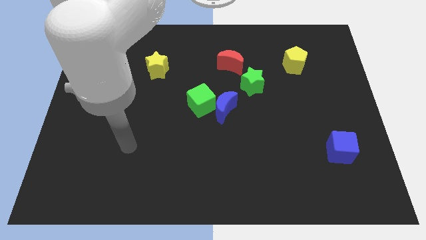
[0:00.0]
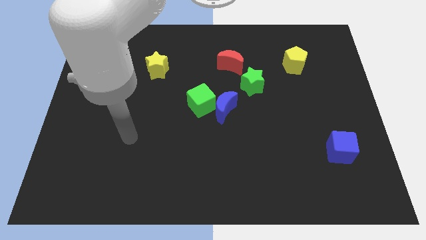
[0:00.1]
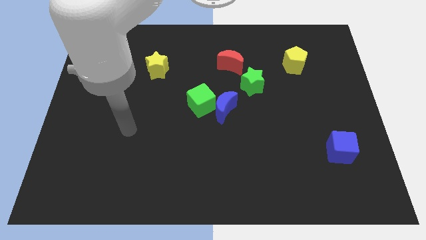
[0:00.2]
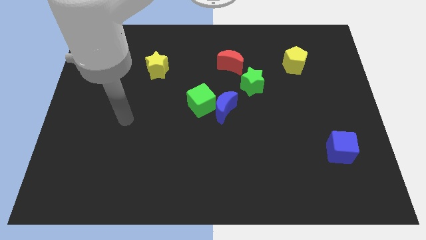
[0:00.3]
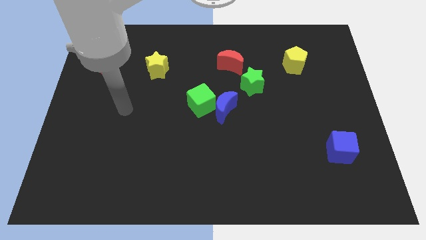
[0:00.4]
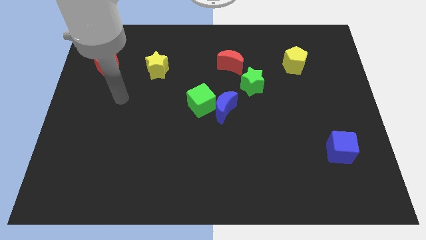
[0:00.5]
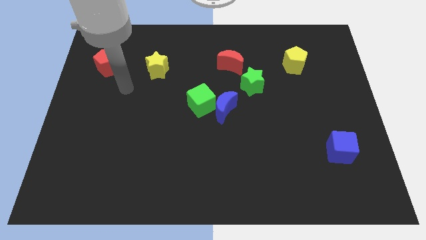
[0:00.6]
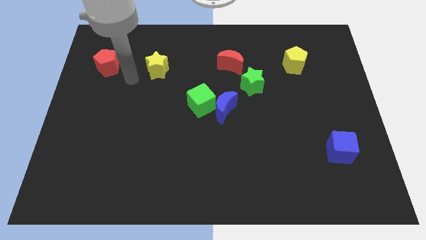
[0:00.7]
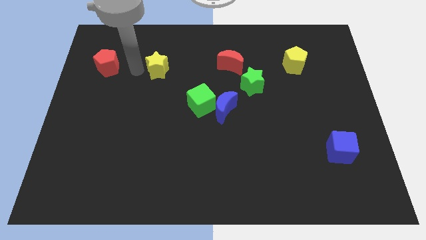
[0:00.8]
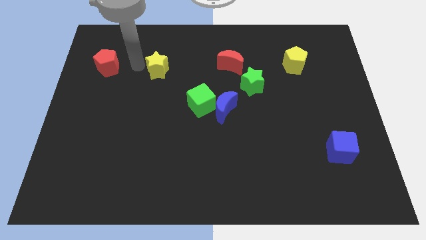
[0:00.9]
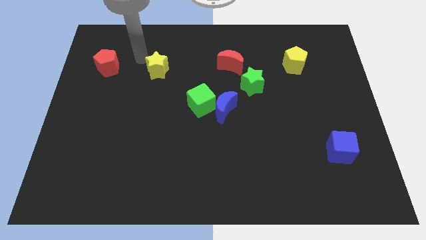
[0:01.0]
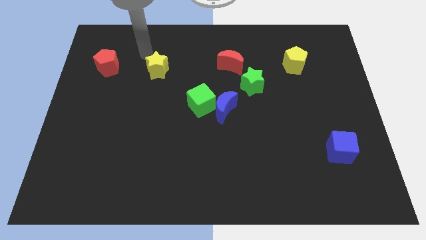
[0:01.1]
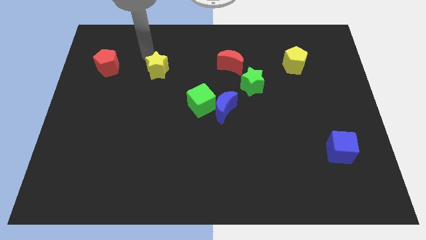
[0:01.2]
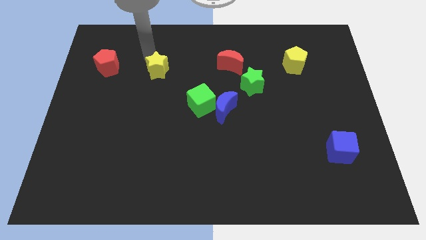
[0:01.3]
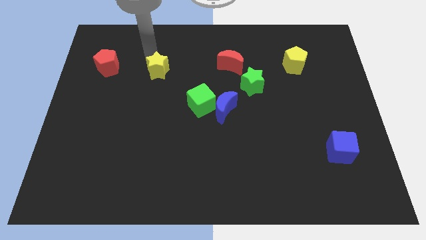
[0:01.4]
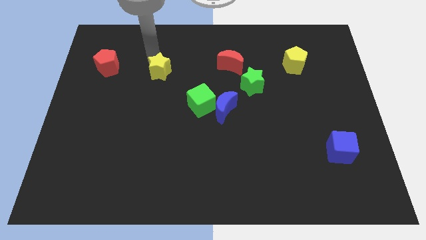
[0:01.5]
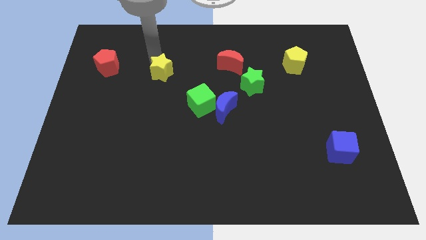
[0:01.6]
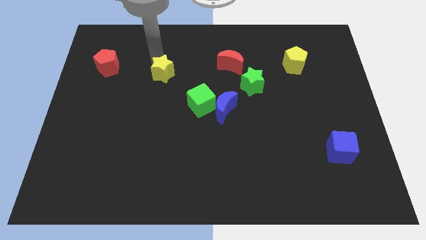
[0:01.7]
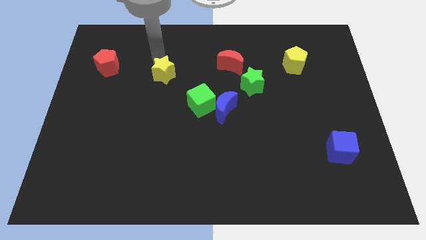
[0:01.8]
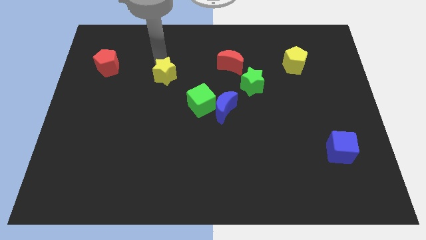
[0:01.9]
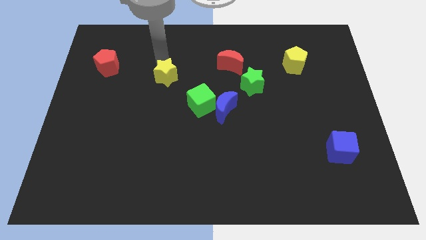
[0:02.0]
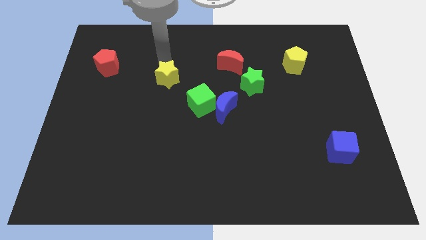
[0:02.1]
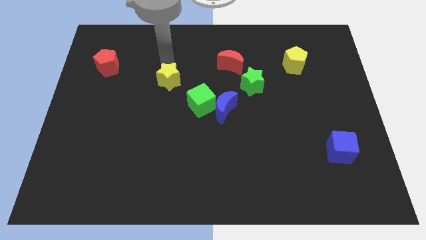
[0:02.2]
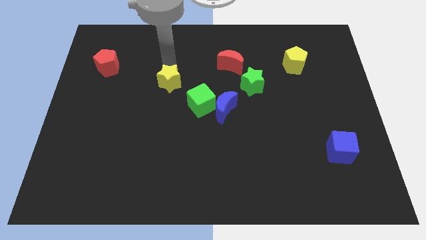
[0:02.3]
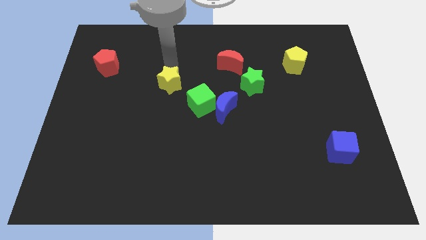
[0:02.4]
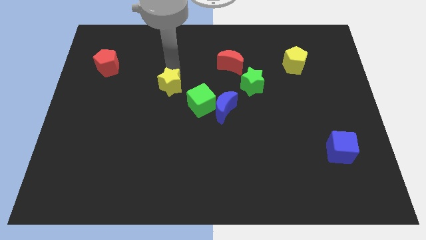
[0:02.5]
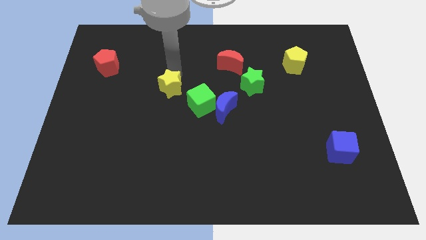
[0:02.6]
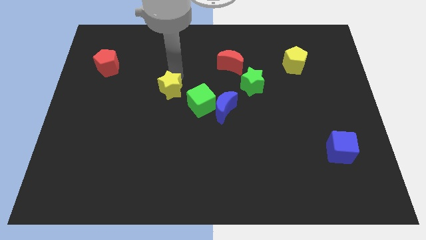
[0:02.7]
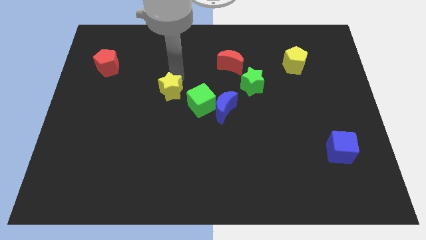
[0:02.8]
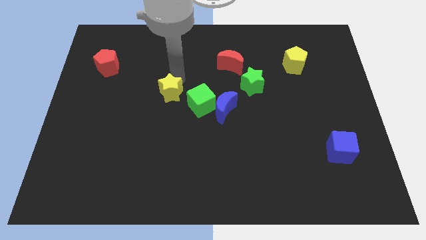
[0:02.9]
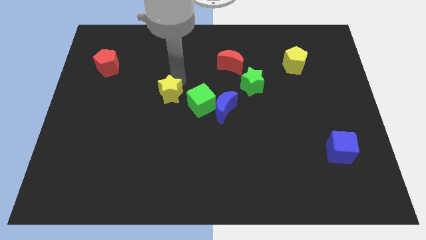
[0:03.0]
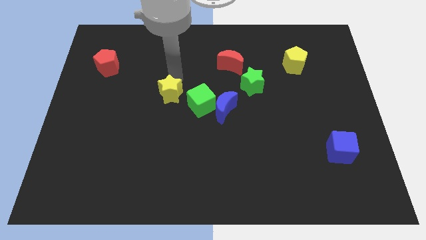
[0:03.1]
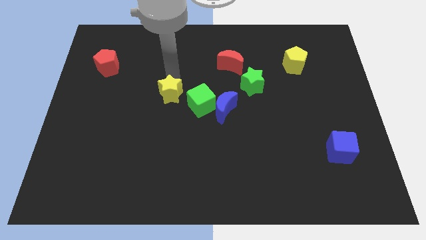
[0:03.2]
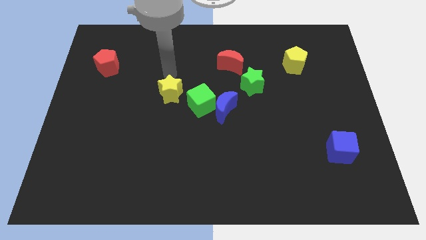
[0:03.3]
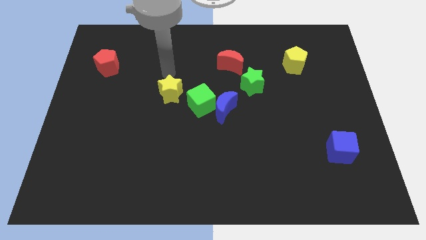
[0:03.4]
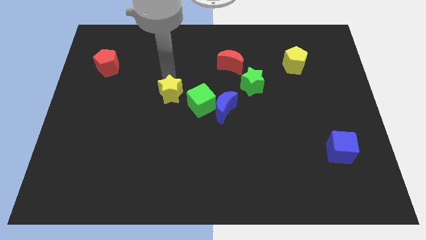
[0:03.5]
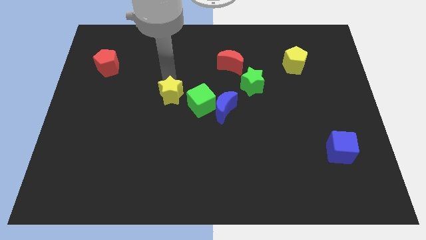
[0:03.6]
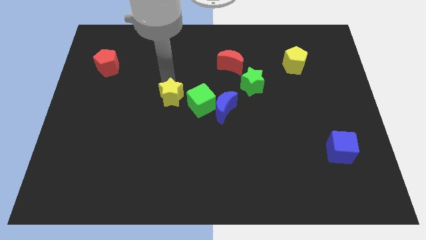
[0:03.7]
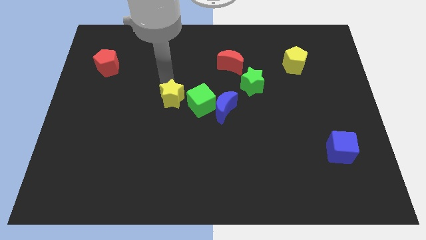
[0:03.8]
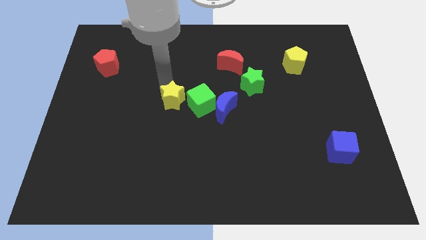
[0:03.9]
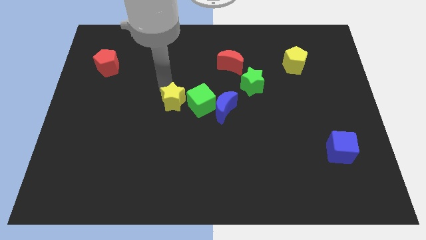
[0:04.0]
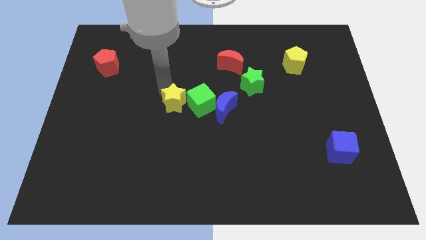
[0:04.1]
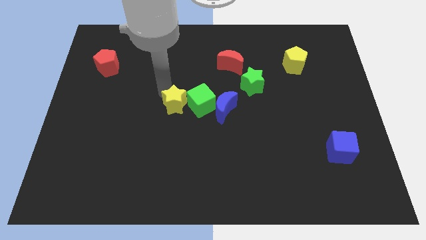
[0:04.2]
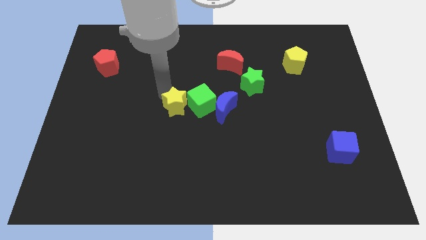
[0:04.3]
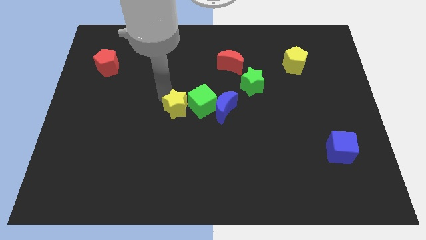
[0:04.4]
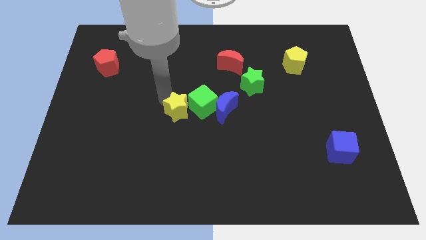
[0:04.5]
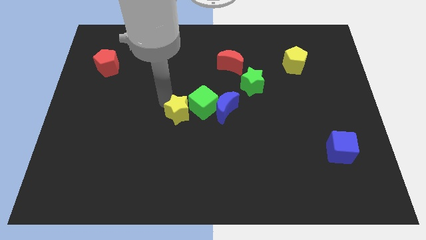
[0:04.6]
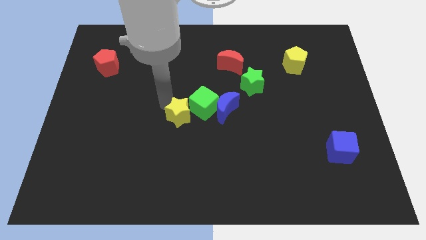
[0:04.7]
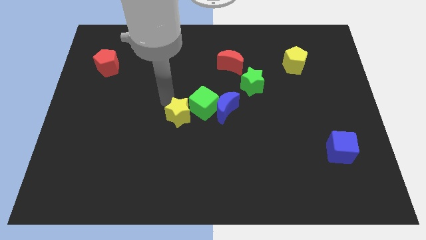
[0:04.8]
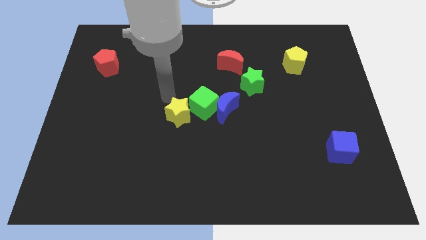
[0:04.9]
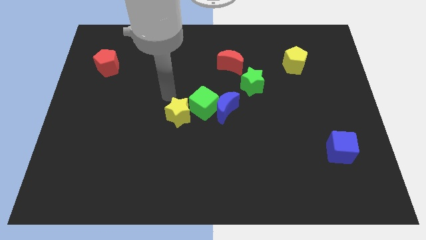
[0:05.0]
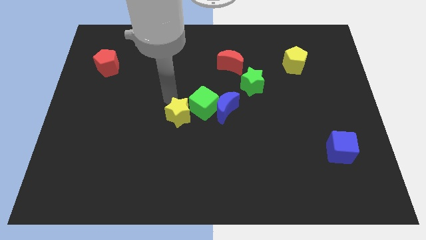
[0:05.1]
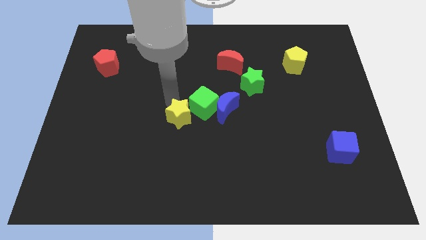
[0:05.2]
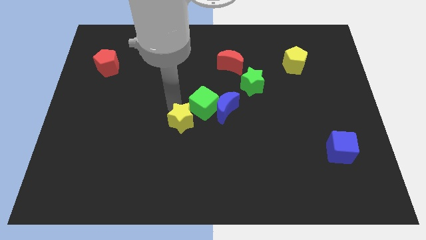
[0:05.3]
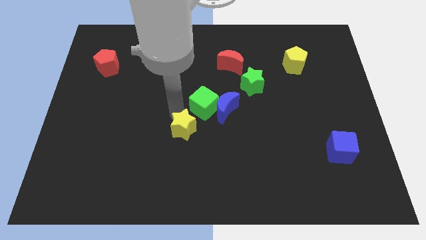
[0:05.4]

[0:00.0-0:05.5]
move the yellow star to the bottom of the green cube

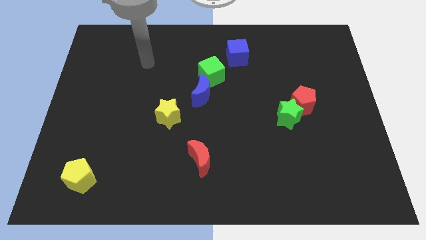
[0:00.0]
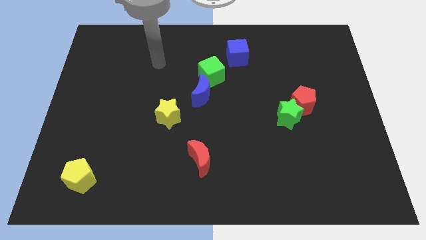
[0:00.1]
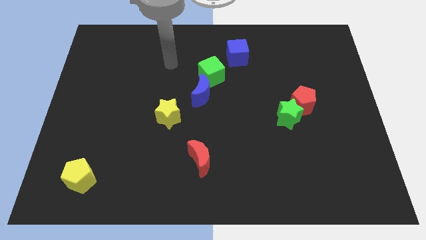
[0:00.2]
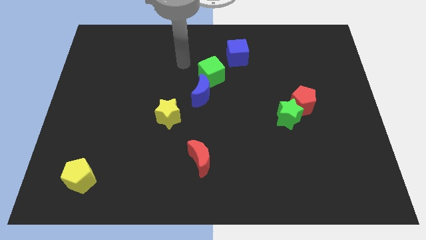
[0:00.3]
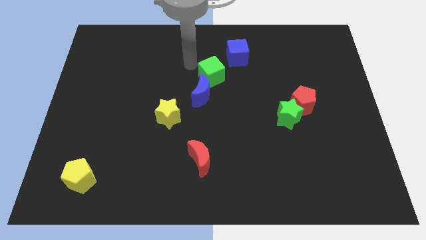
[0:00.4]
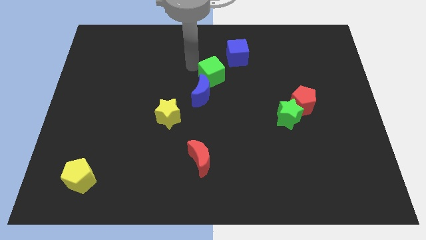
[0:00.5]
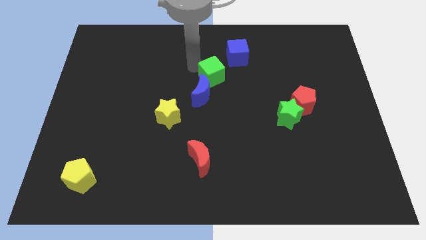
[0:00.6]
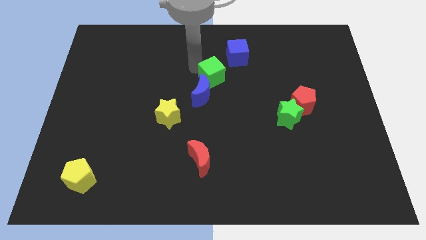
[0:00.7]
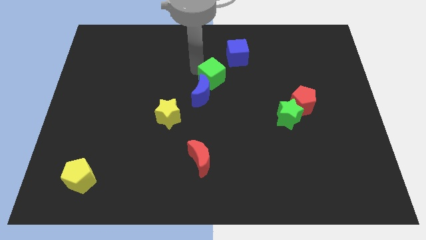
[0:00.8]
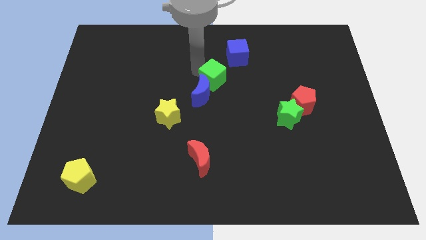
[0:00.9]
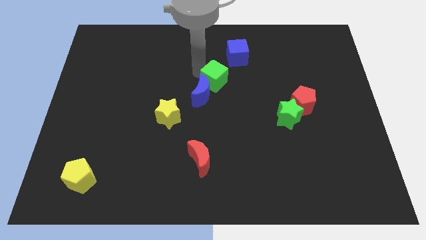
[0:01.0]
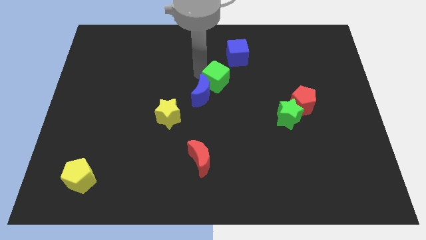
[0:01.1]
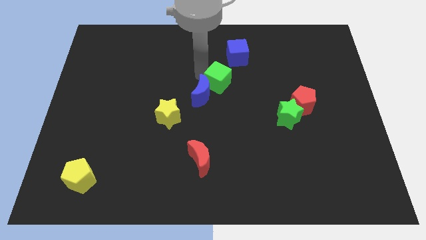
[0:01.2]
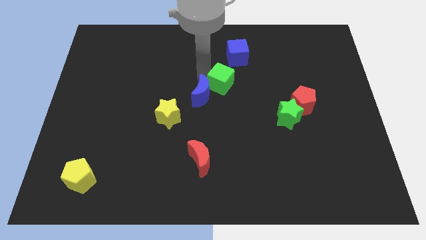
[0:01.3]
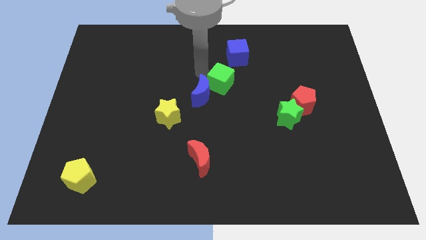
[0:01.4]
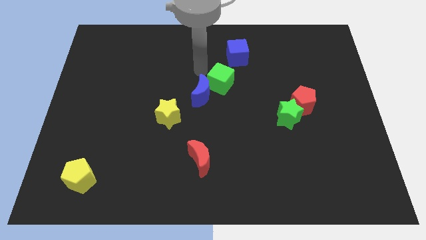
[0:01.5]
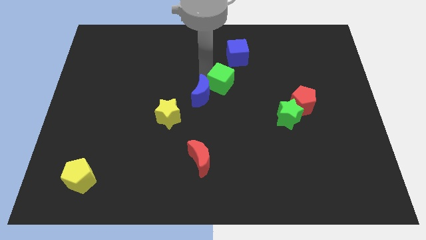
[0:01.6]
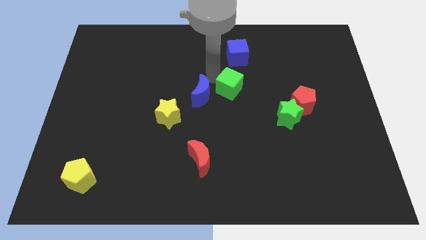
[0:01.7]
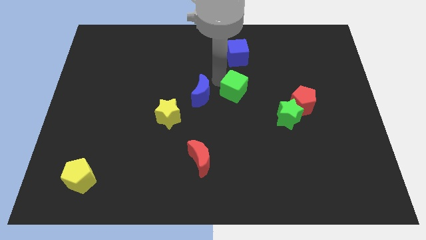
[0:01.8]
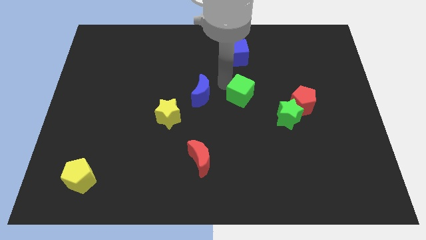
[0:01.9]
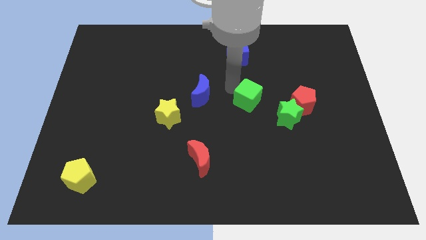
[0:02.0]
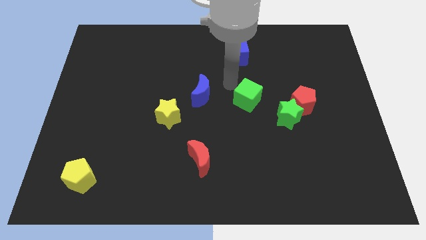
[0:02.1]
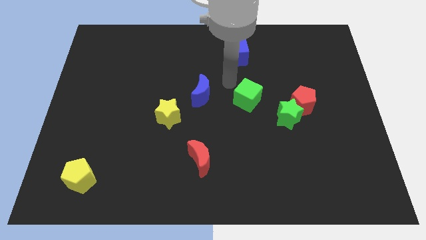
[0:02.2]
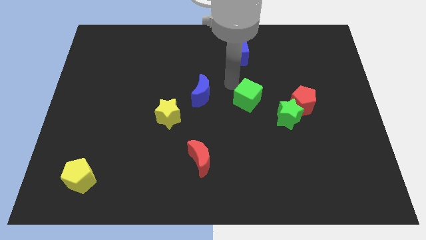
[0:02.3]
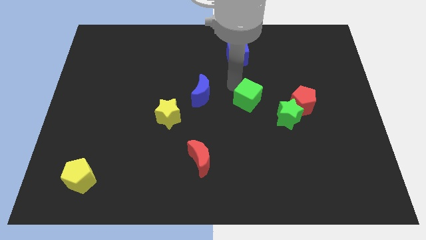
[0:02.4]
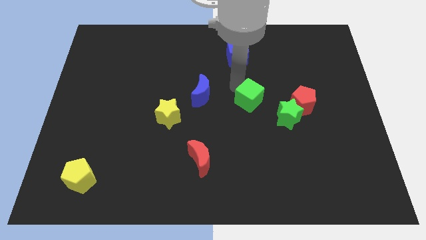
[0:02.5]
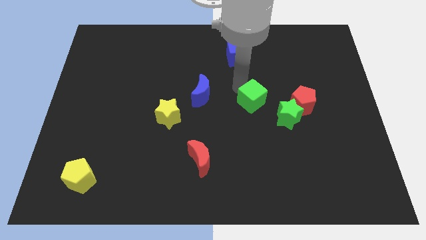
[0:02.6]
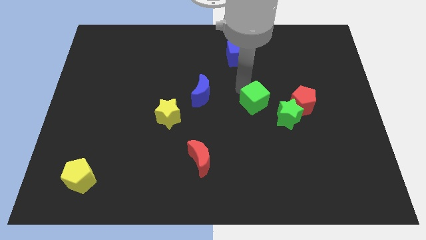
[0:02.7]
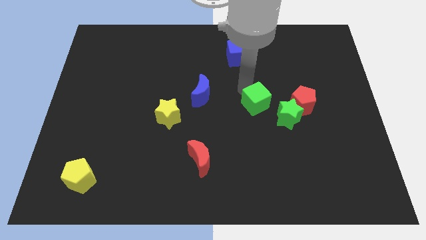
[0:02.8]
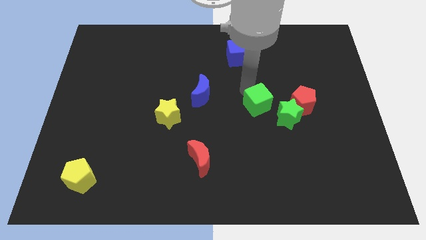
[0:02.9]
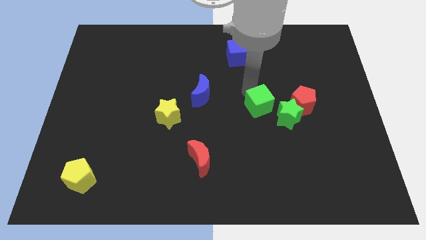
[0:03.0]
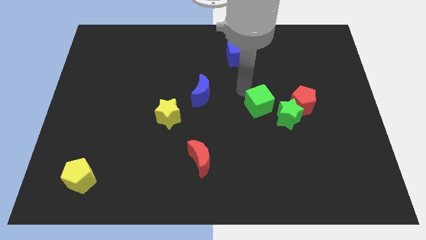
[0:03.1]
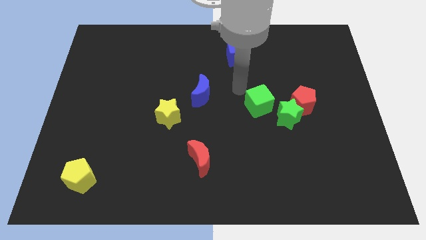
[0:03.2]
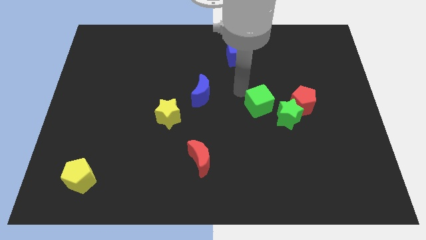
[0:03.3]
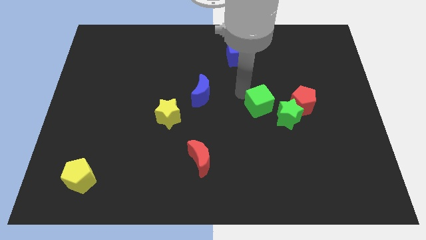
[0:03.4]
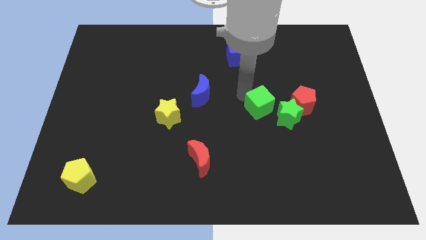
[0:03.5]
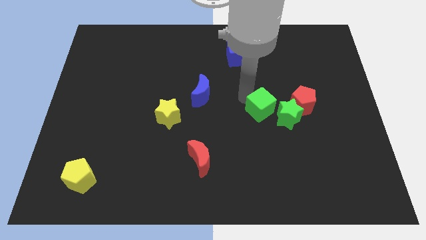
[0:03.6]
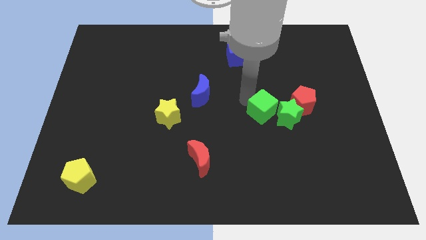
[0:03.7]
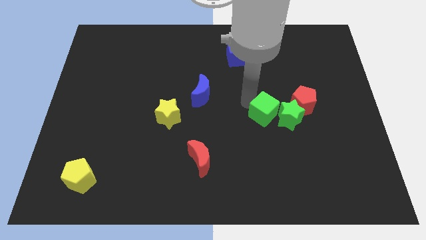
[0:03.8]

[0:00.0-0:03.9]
slide the green cube to the bottom left of the red pentagon
